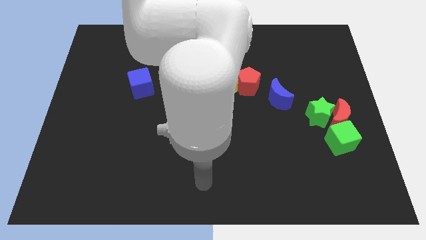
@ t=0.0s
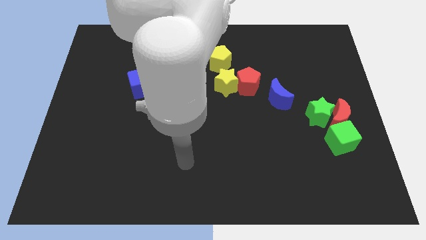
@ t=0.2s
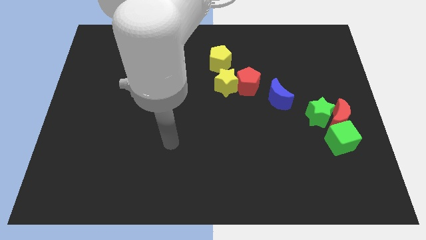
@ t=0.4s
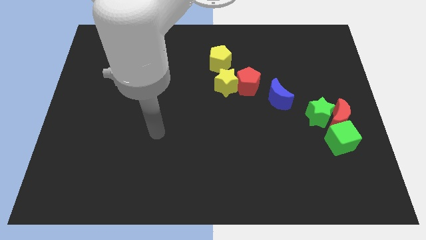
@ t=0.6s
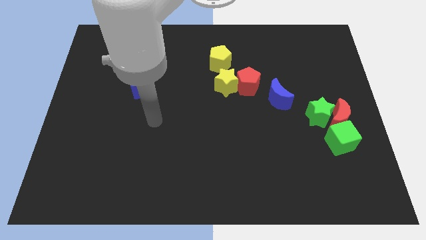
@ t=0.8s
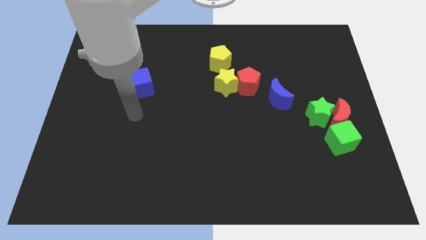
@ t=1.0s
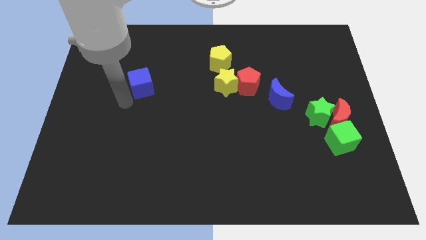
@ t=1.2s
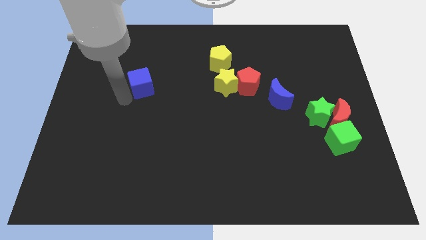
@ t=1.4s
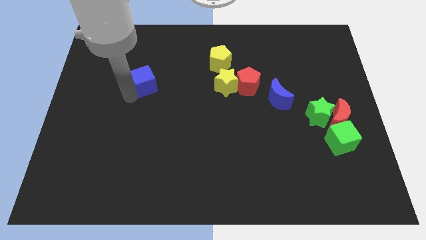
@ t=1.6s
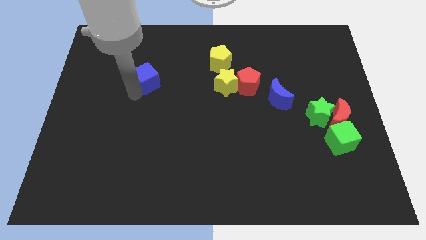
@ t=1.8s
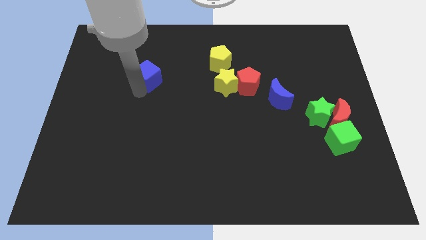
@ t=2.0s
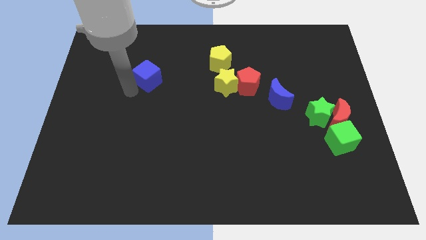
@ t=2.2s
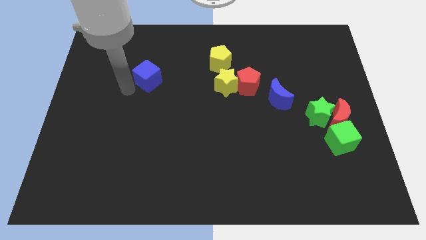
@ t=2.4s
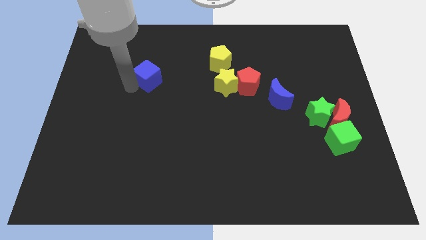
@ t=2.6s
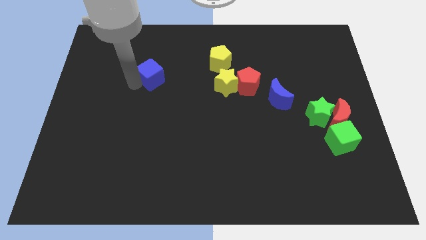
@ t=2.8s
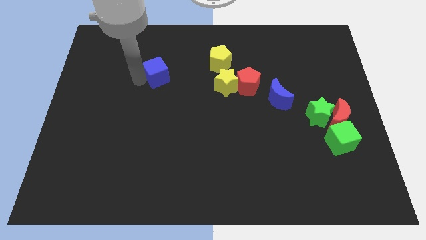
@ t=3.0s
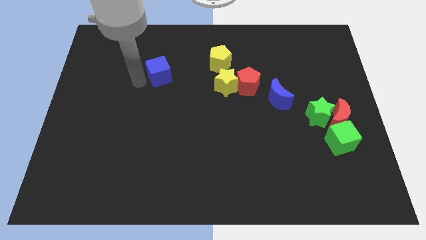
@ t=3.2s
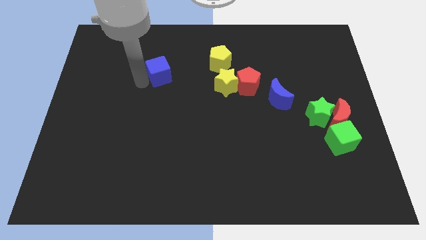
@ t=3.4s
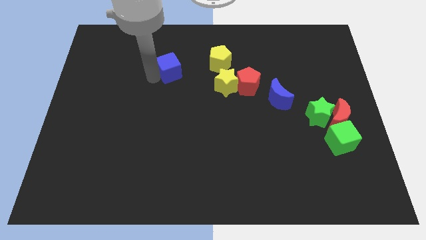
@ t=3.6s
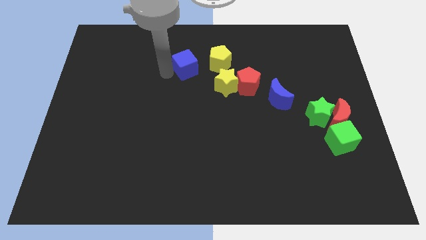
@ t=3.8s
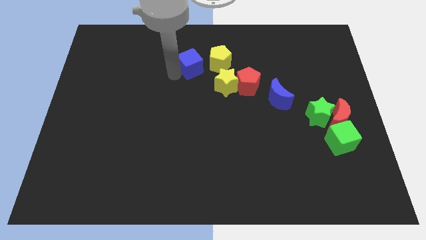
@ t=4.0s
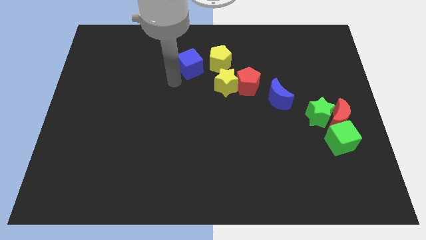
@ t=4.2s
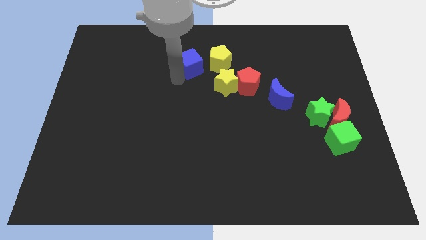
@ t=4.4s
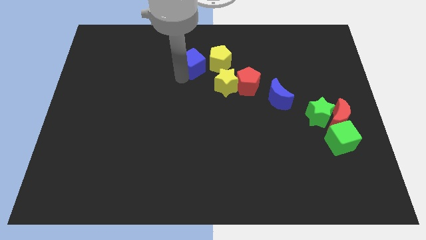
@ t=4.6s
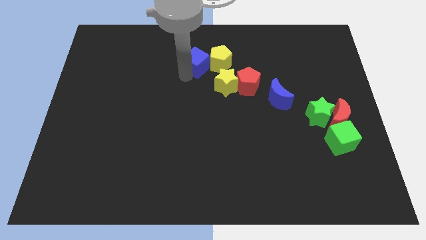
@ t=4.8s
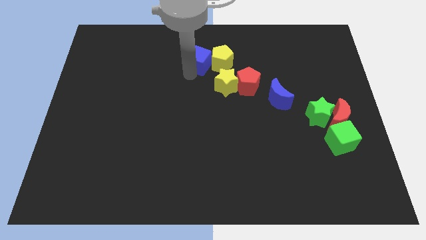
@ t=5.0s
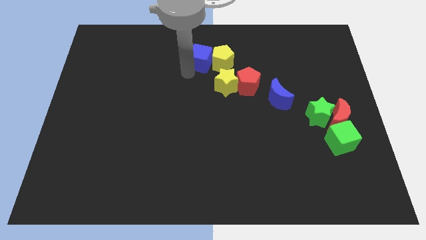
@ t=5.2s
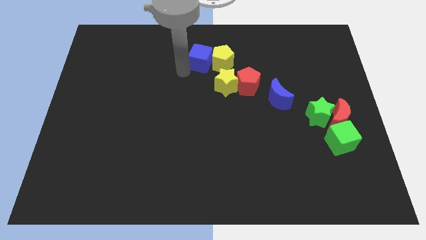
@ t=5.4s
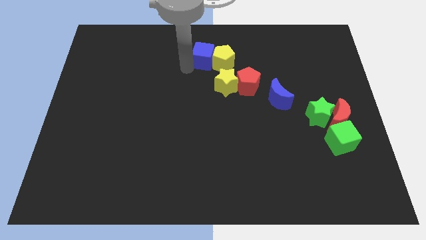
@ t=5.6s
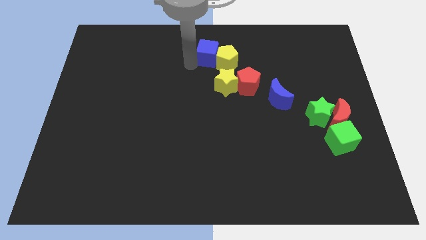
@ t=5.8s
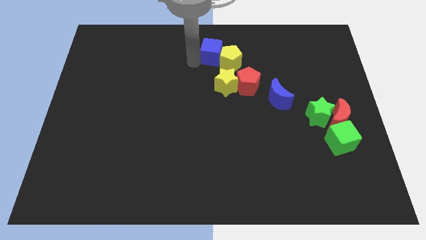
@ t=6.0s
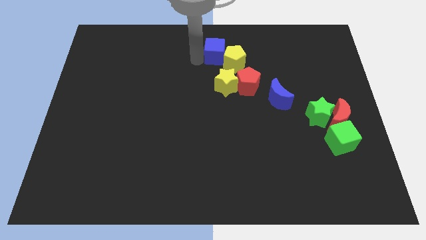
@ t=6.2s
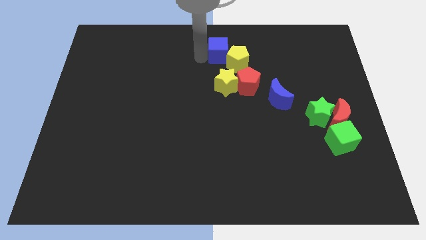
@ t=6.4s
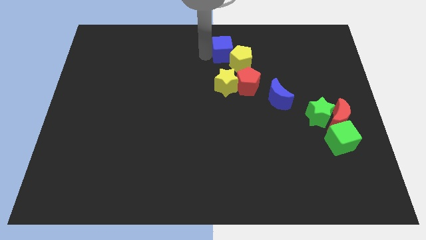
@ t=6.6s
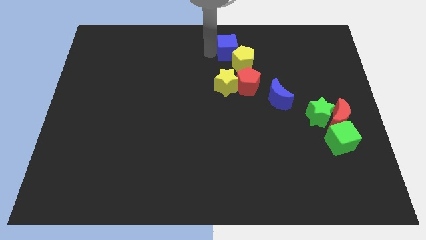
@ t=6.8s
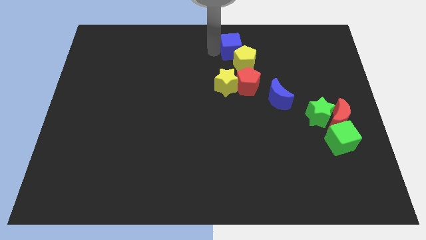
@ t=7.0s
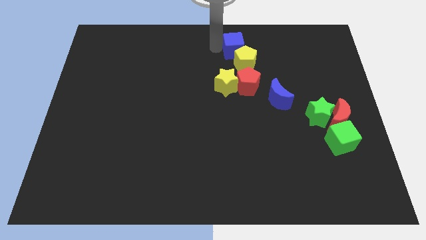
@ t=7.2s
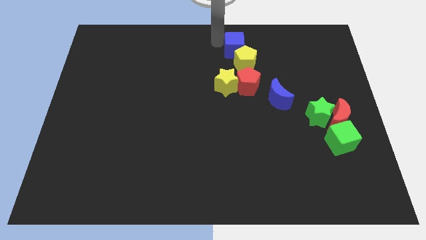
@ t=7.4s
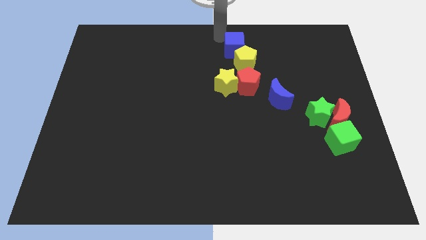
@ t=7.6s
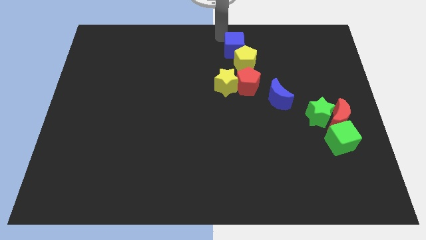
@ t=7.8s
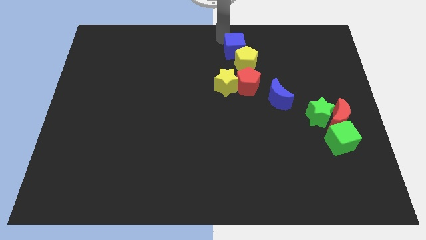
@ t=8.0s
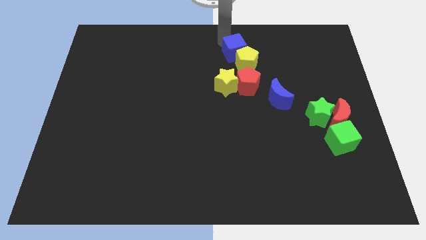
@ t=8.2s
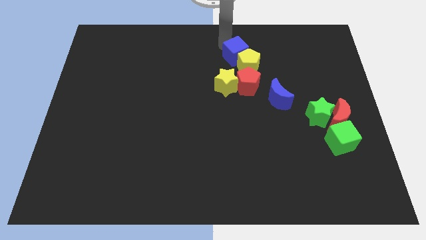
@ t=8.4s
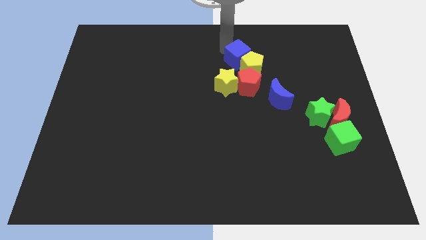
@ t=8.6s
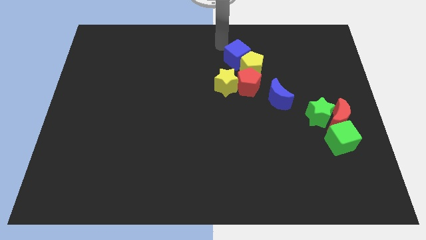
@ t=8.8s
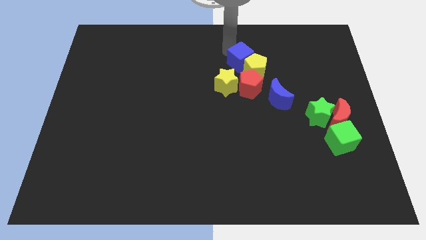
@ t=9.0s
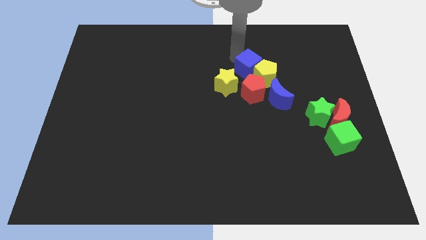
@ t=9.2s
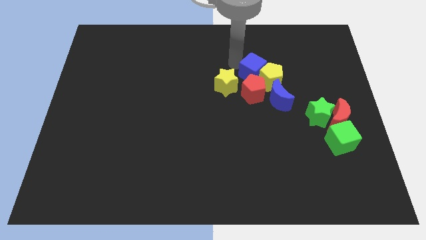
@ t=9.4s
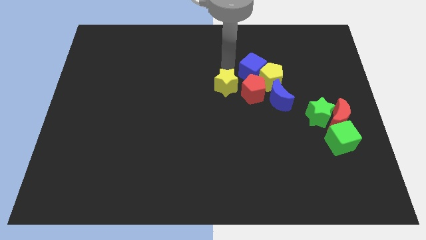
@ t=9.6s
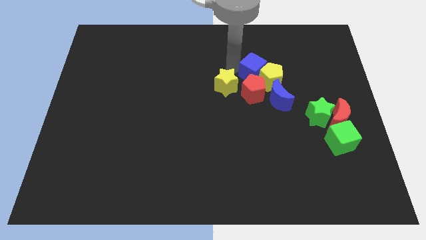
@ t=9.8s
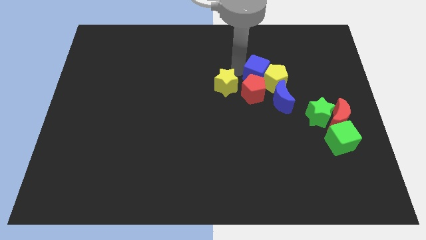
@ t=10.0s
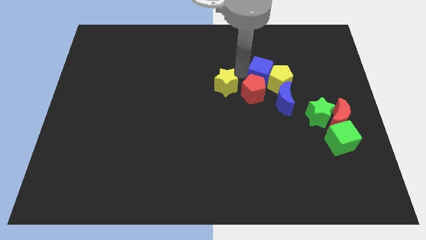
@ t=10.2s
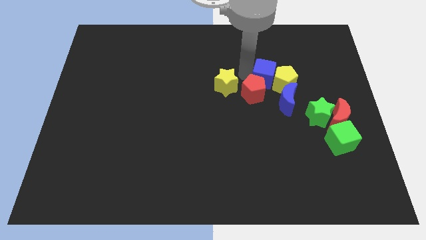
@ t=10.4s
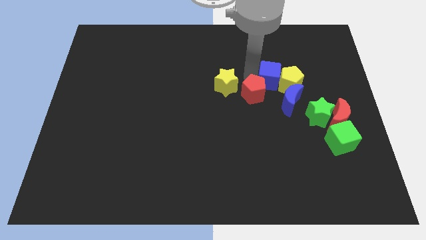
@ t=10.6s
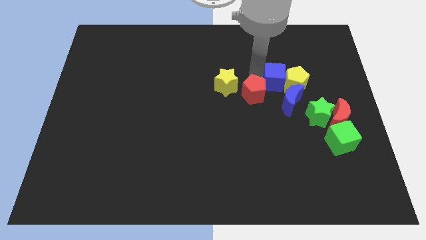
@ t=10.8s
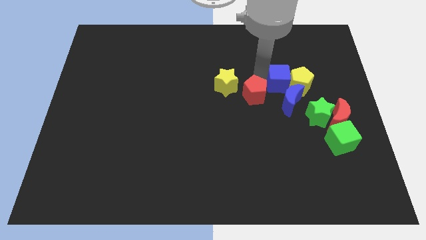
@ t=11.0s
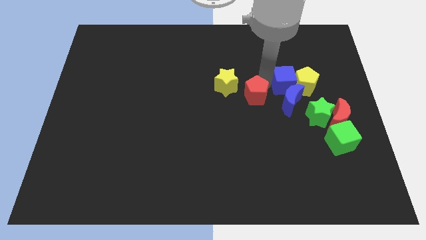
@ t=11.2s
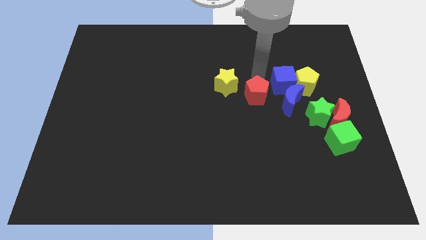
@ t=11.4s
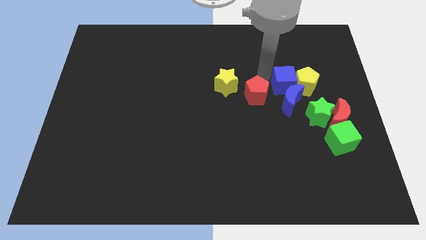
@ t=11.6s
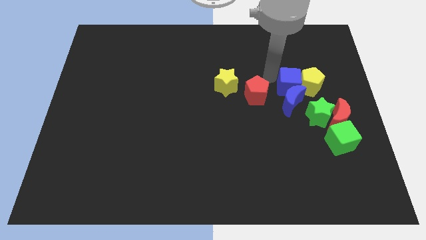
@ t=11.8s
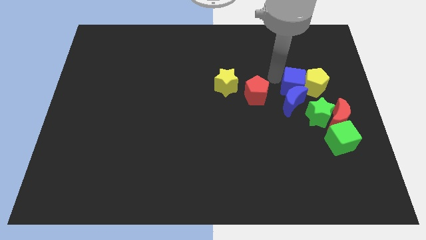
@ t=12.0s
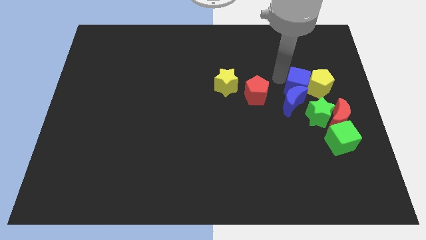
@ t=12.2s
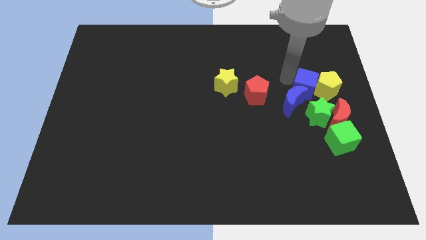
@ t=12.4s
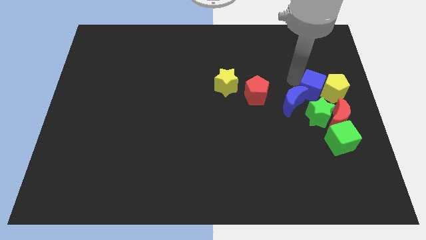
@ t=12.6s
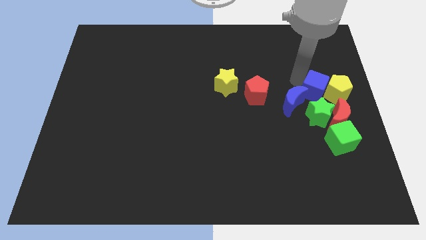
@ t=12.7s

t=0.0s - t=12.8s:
put the blue cube to the top side of the green cube

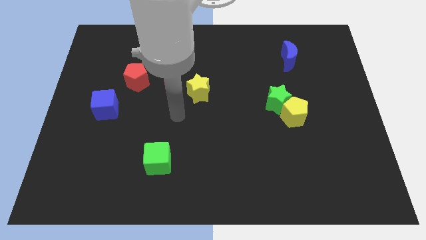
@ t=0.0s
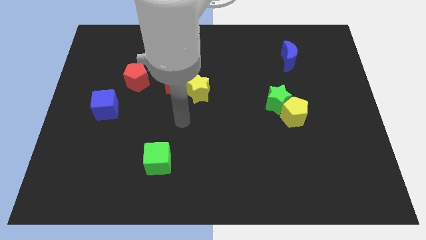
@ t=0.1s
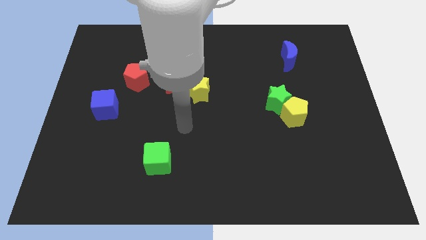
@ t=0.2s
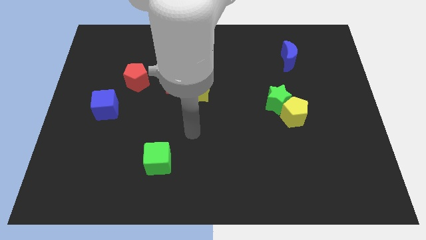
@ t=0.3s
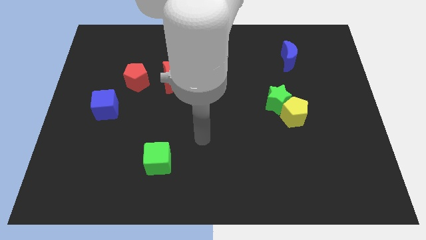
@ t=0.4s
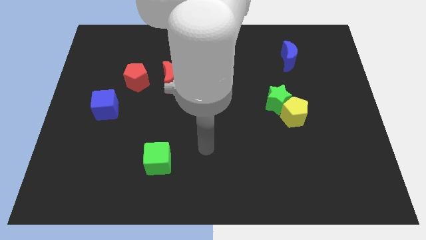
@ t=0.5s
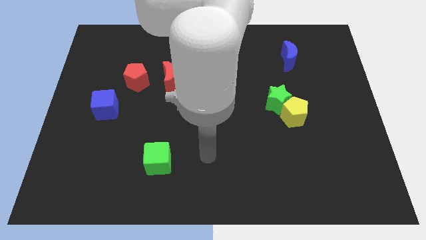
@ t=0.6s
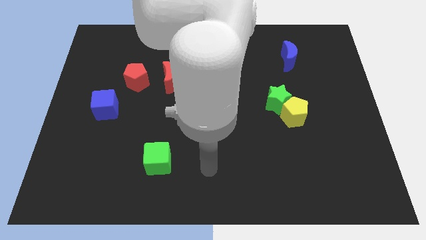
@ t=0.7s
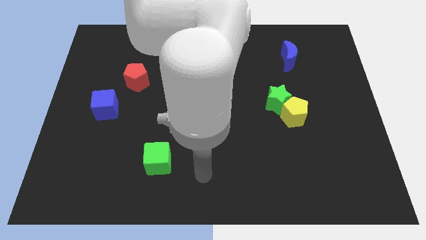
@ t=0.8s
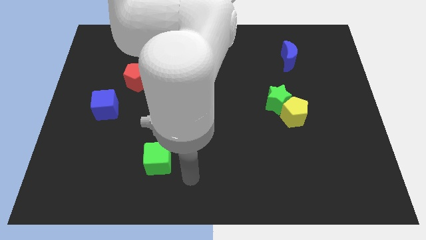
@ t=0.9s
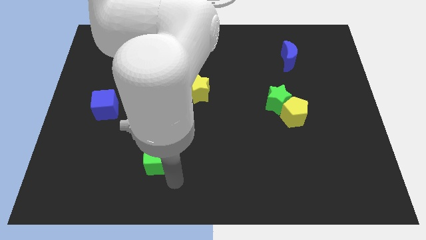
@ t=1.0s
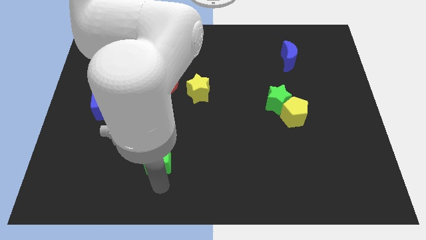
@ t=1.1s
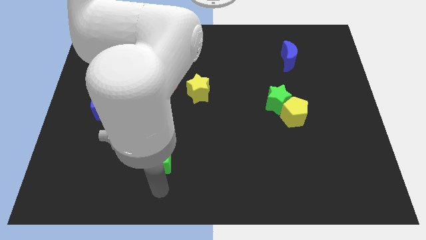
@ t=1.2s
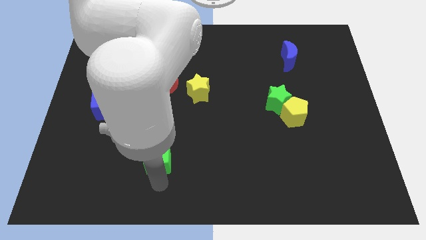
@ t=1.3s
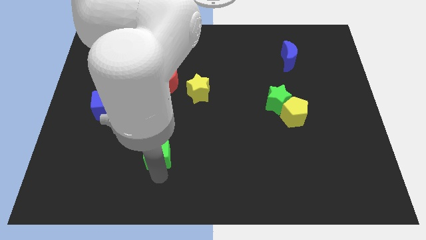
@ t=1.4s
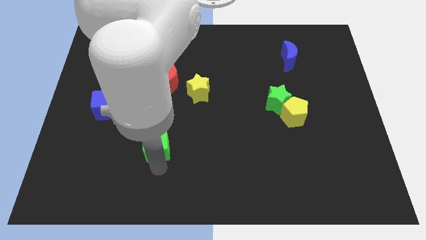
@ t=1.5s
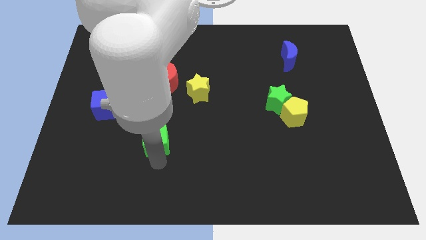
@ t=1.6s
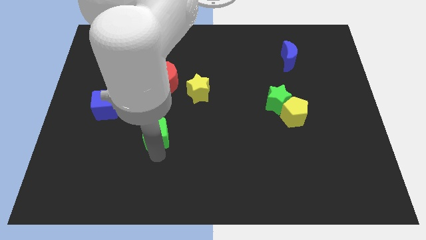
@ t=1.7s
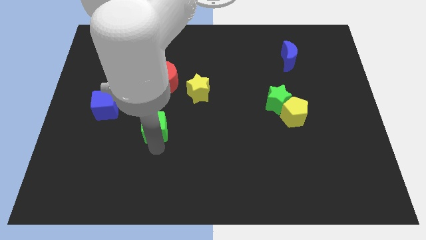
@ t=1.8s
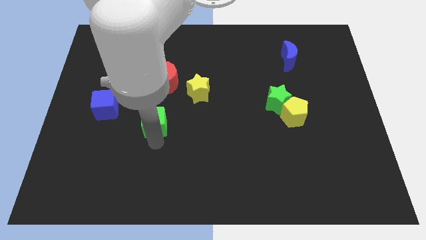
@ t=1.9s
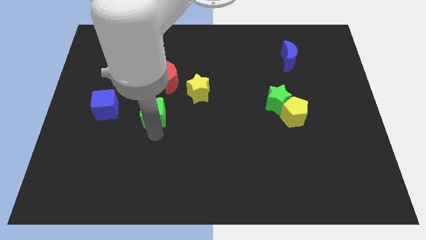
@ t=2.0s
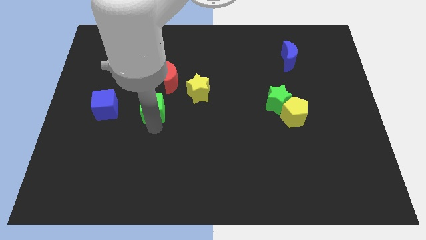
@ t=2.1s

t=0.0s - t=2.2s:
slide the green cube to the bottom right side of the red pentagon
